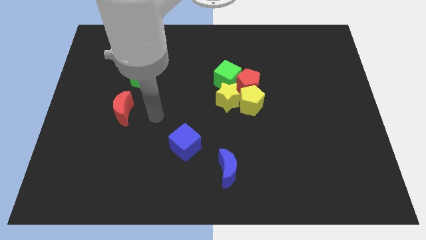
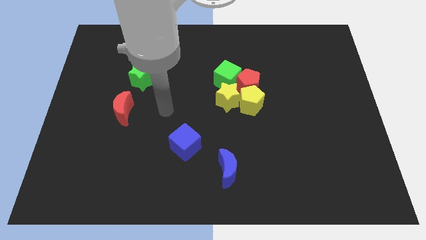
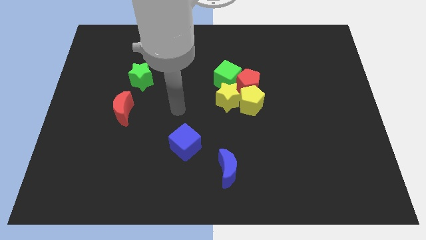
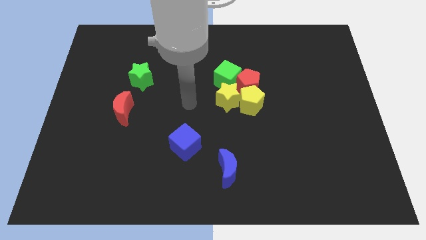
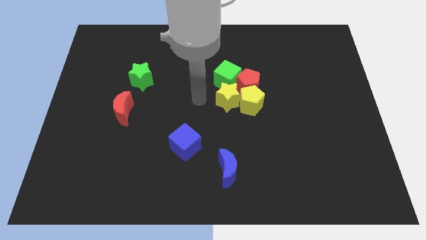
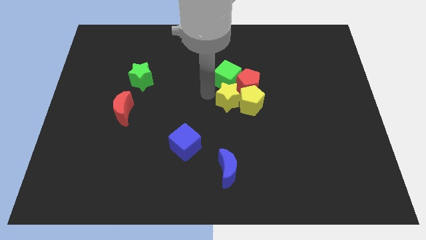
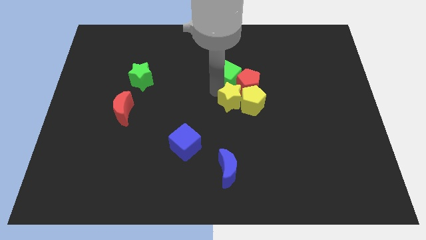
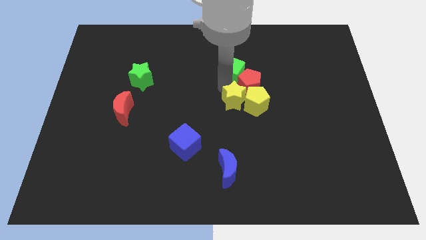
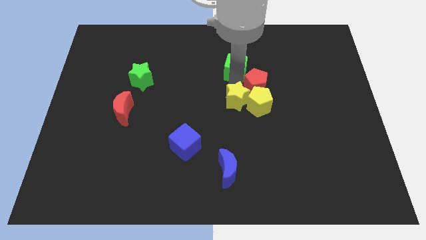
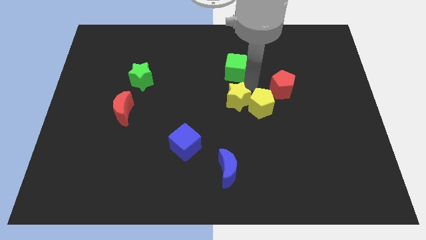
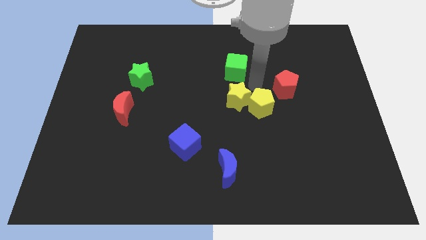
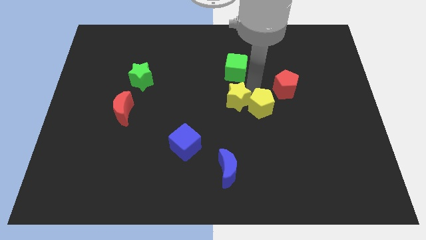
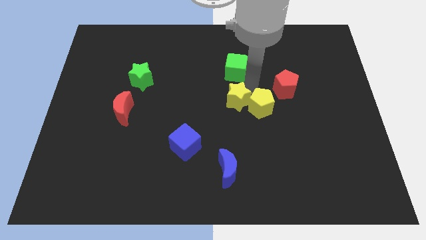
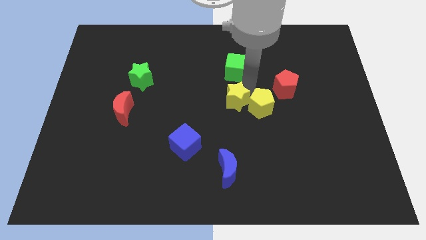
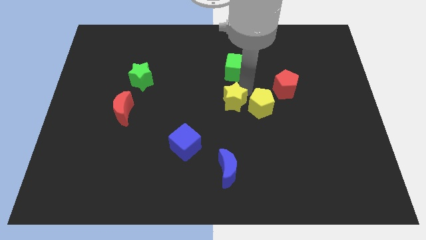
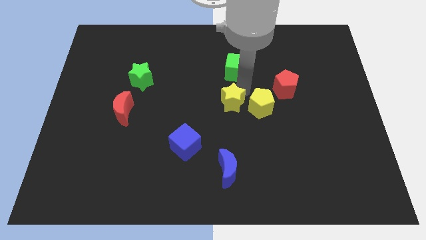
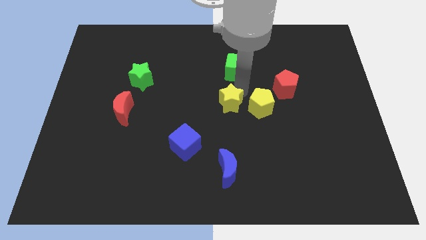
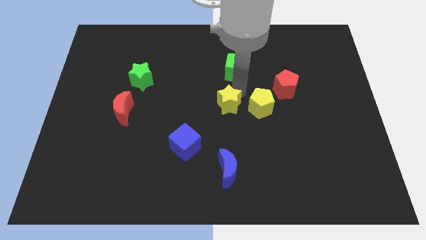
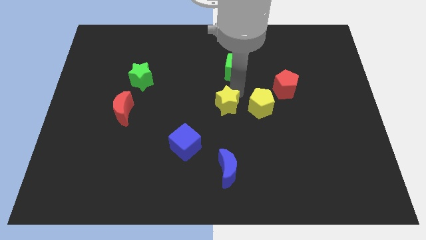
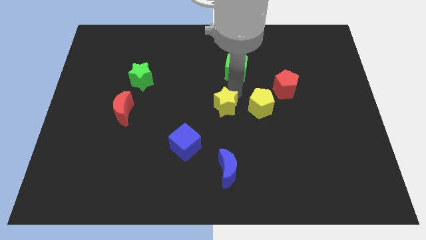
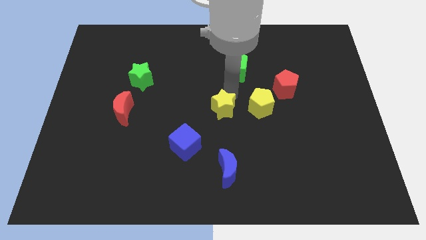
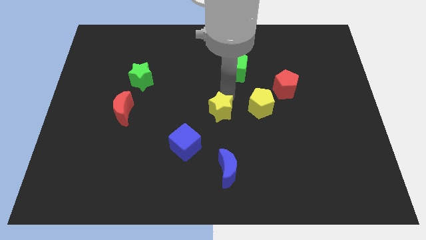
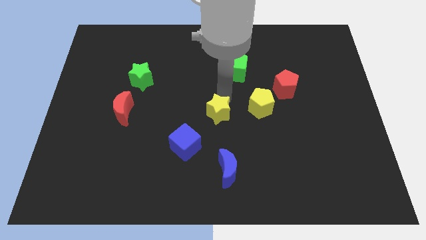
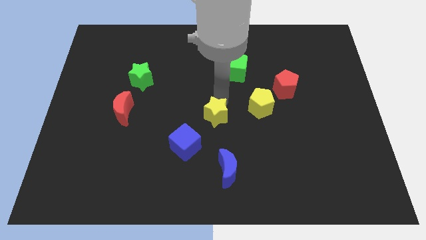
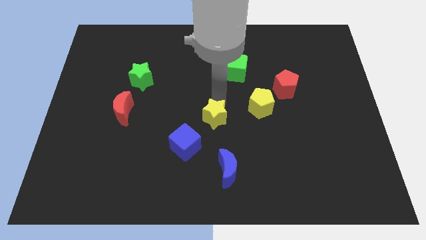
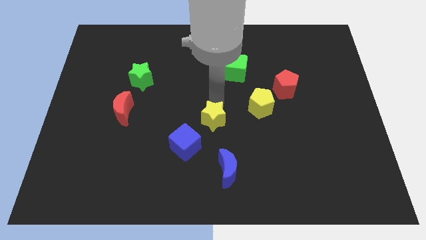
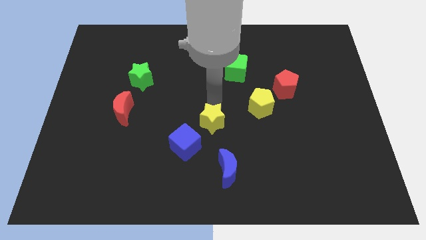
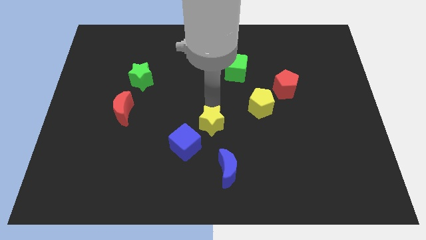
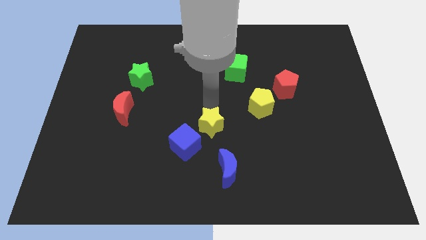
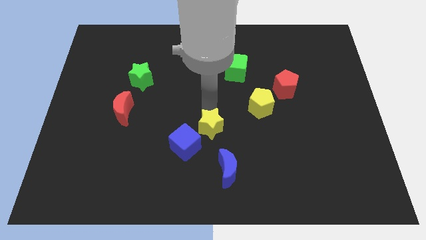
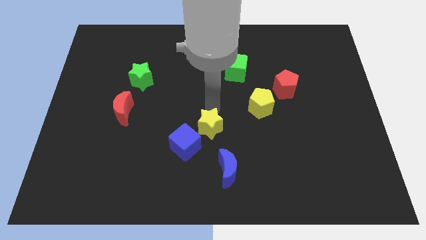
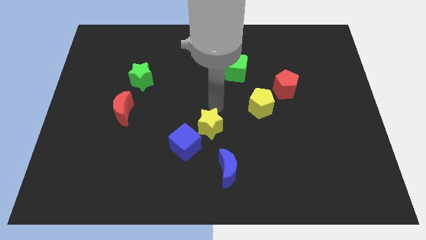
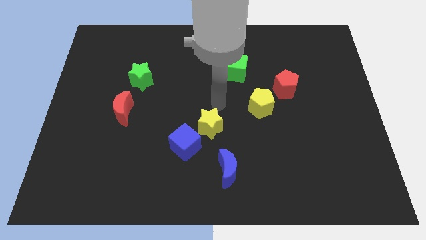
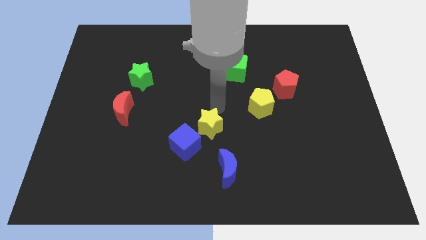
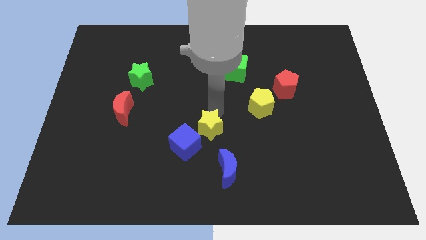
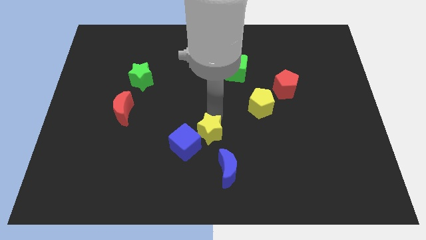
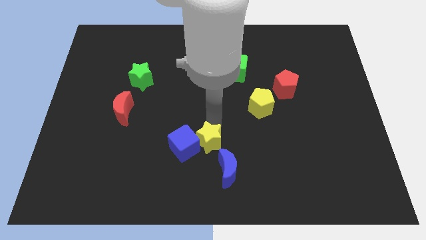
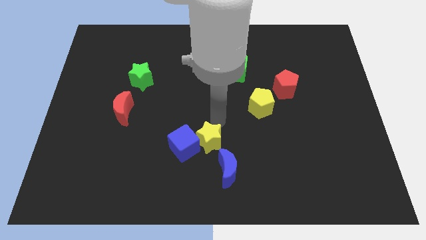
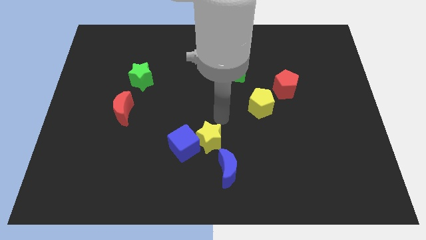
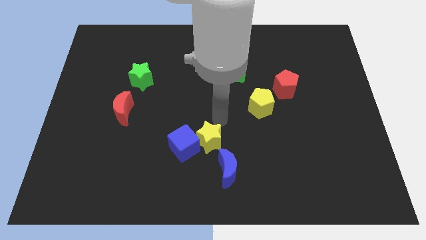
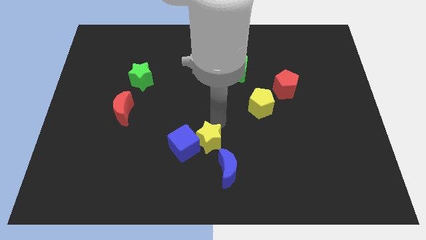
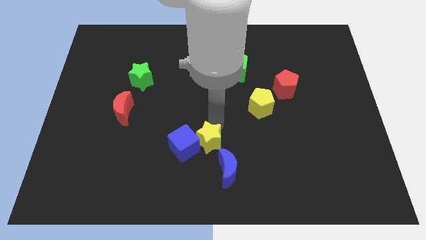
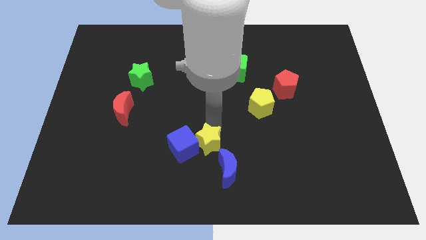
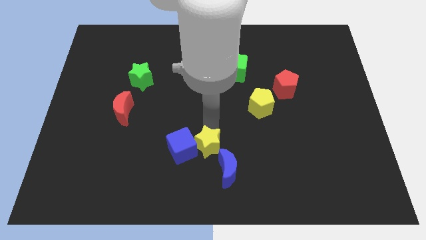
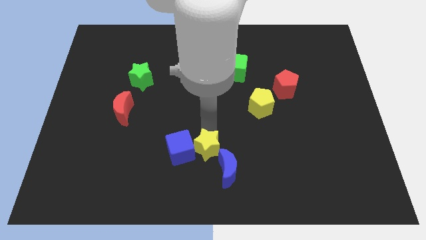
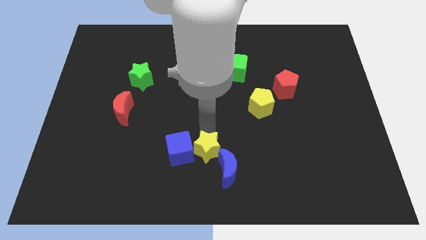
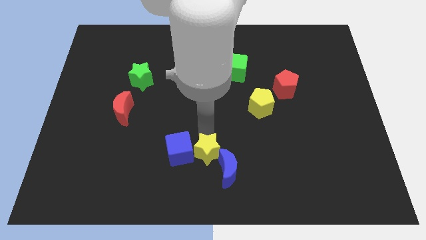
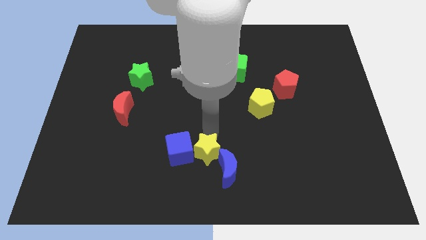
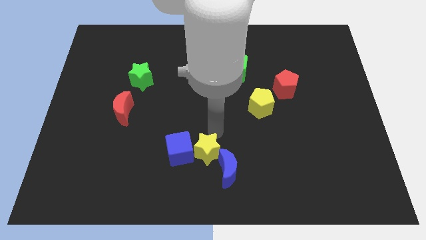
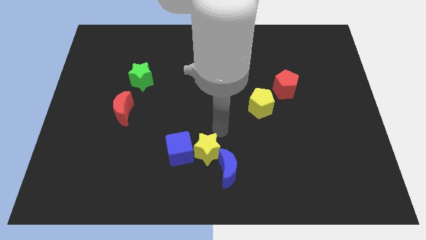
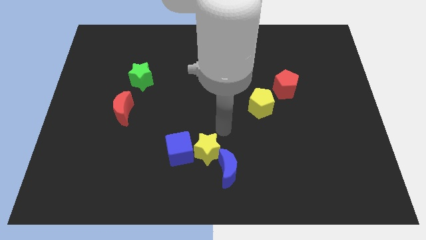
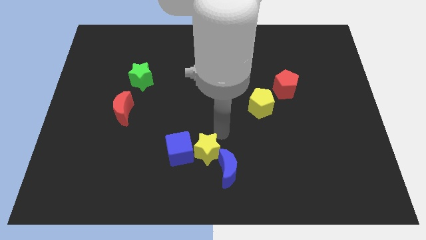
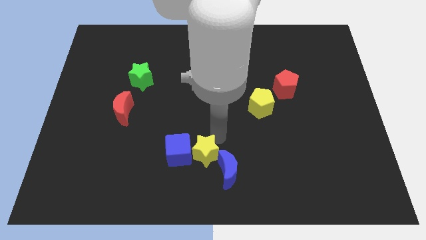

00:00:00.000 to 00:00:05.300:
slide the yellow star to the bottom

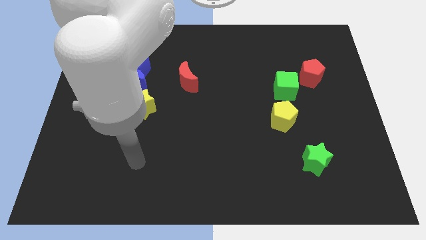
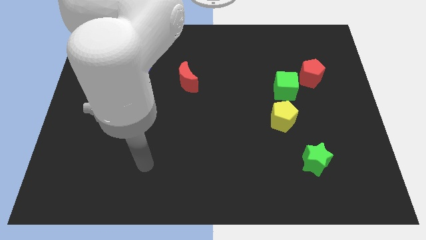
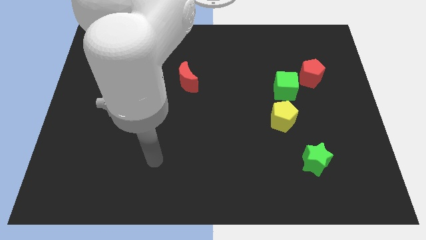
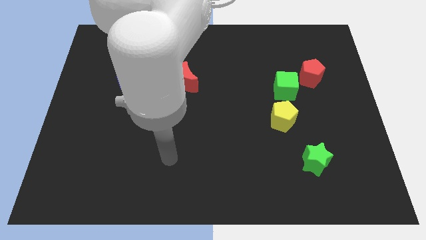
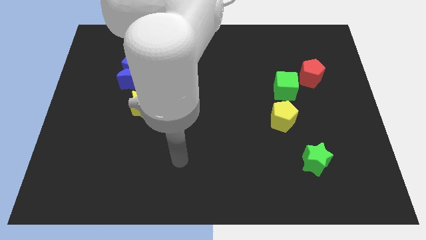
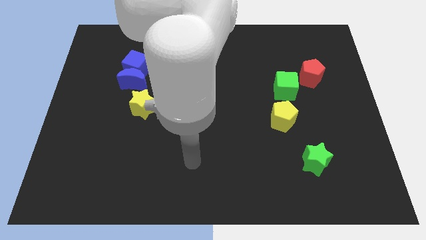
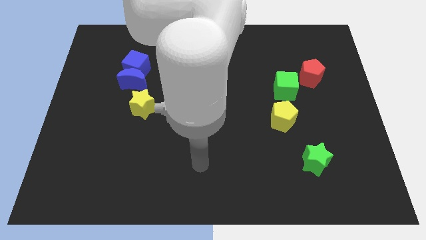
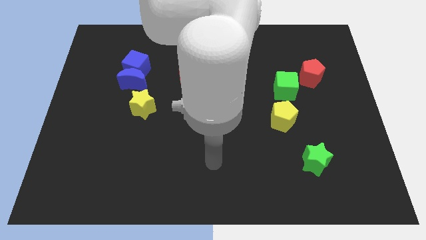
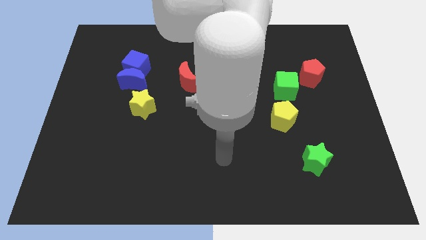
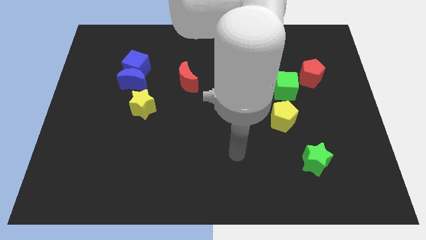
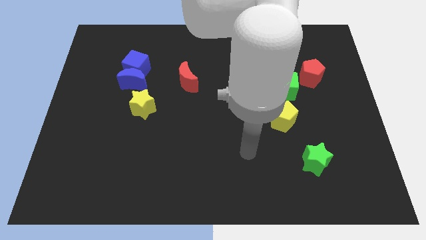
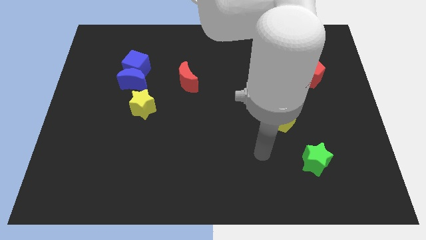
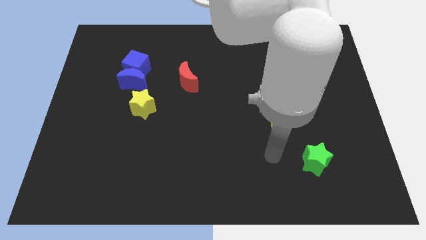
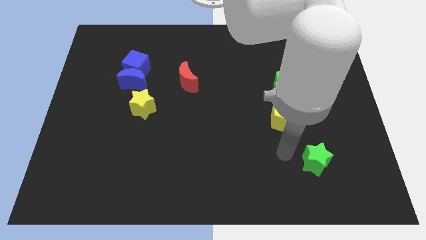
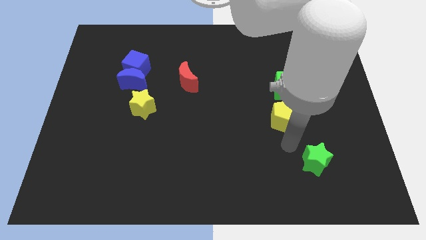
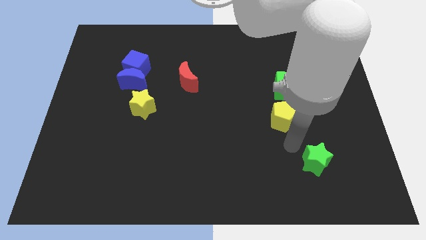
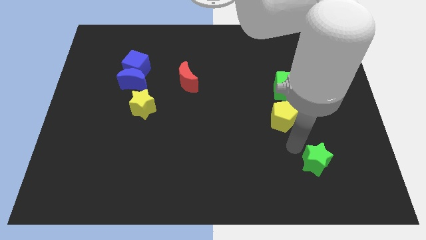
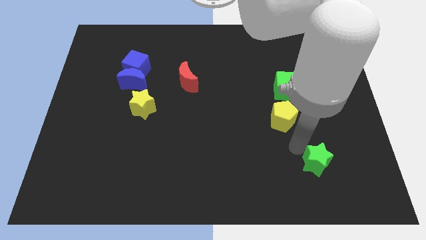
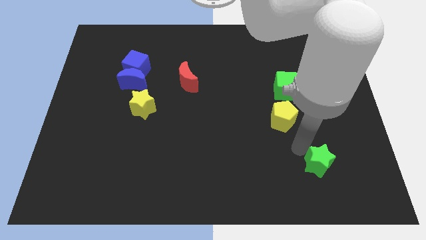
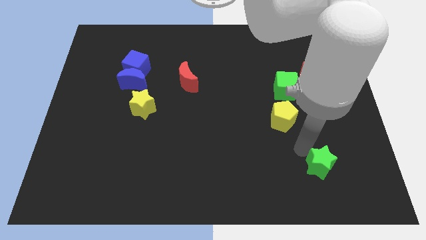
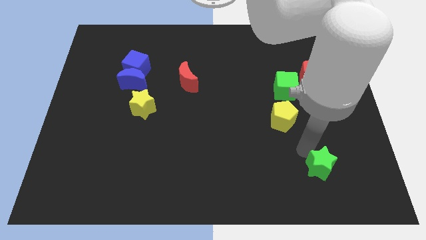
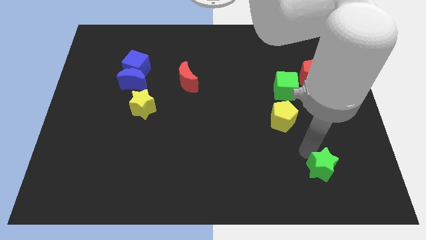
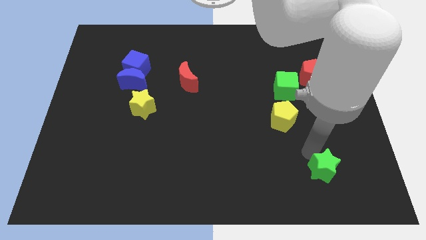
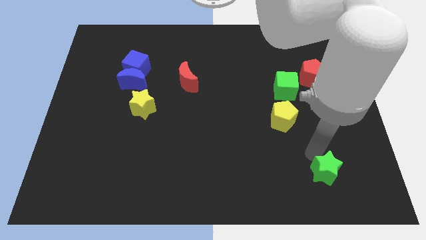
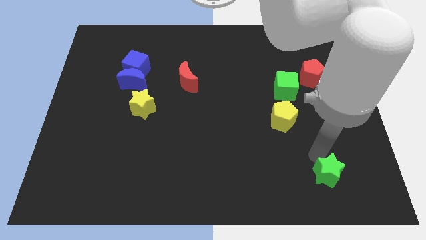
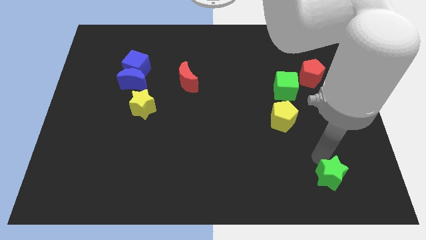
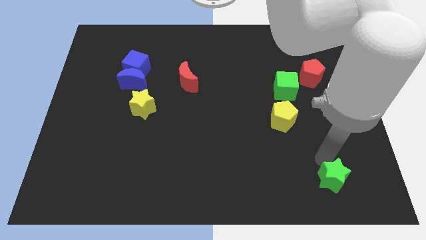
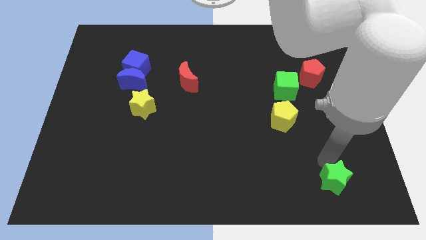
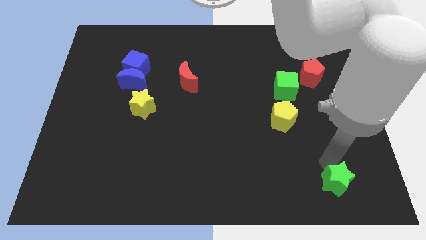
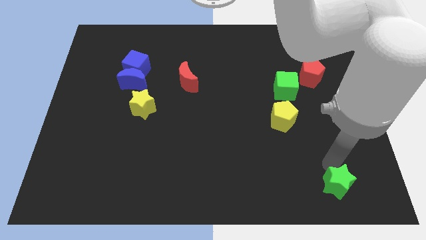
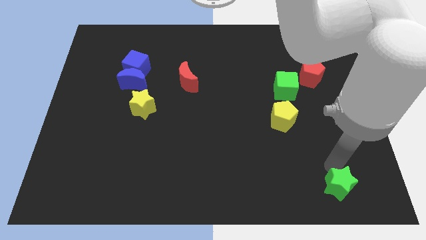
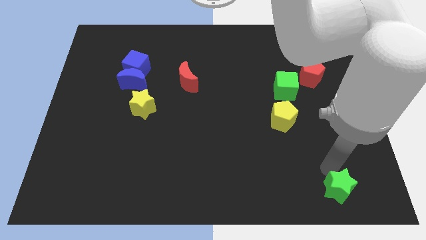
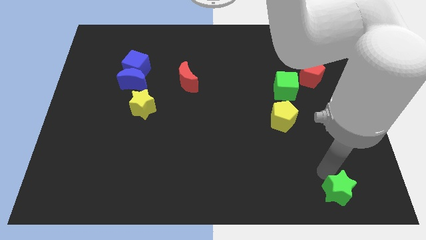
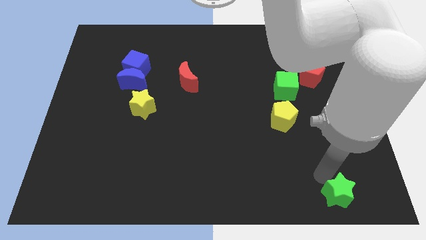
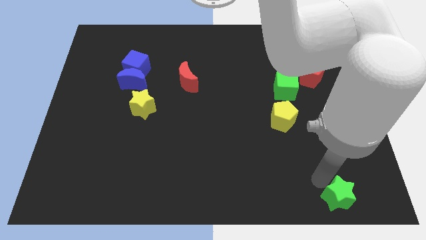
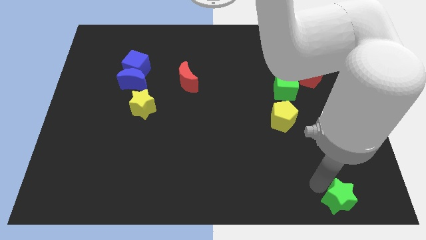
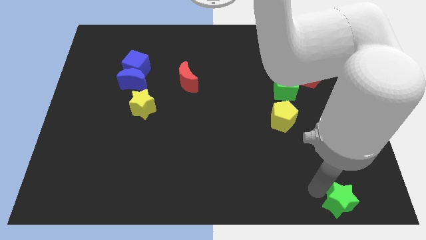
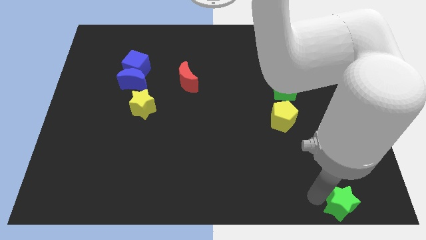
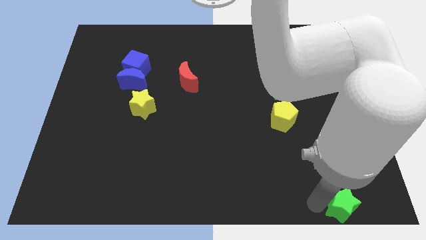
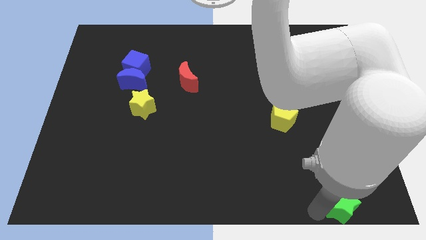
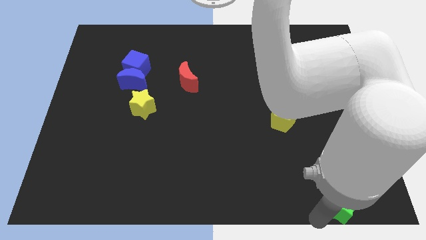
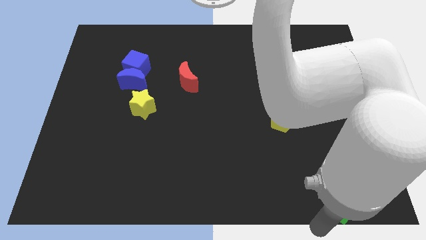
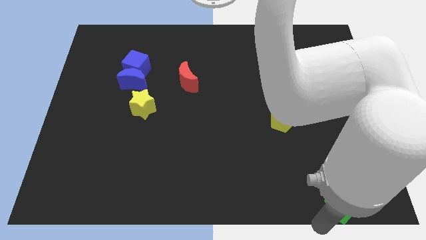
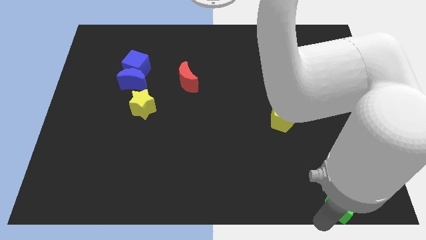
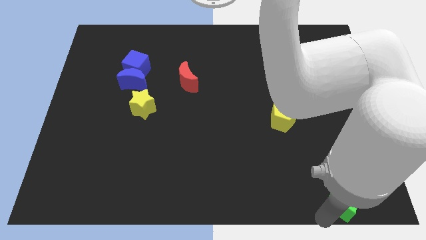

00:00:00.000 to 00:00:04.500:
slide the green star to the bottom right corner
